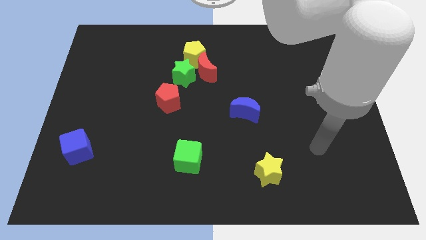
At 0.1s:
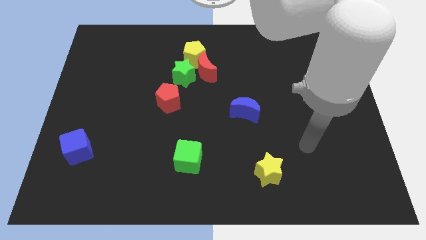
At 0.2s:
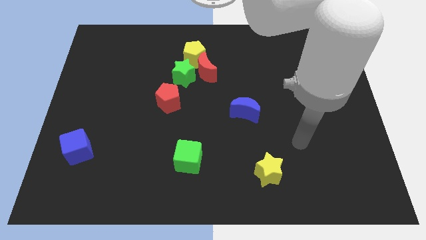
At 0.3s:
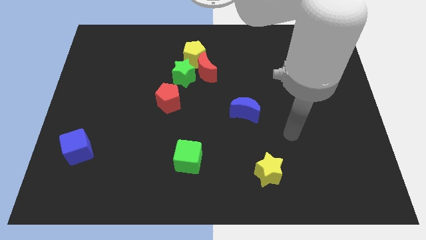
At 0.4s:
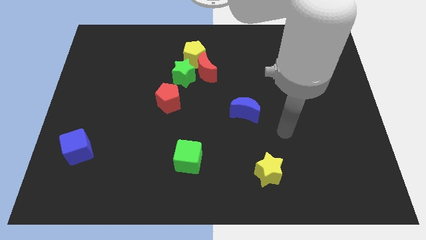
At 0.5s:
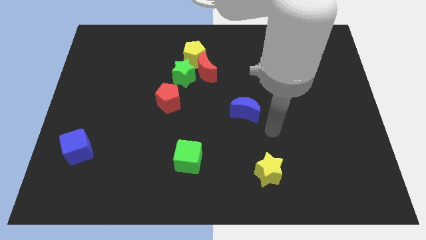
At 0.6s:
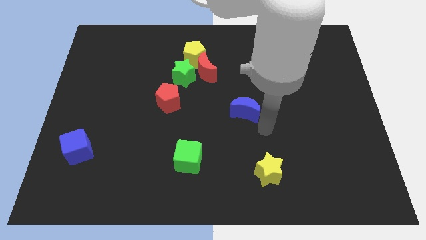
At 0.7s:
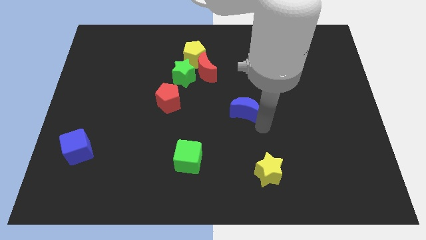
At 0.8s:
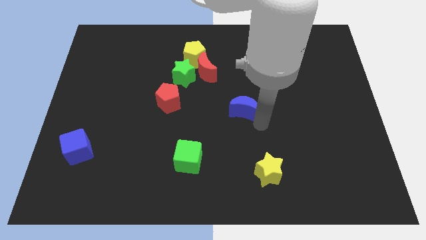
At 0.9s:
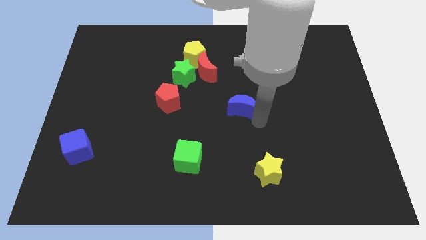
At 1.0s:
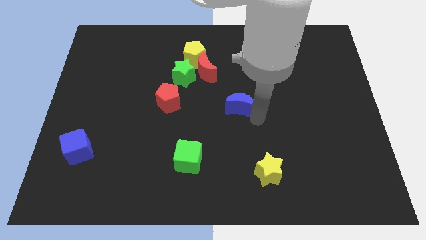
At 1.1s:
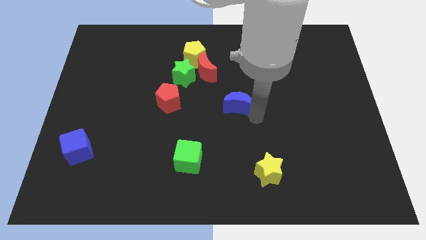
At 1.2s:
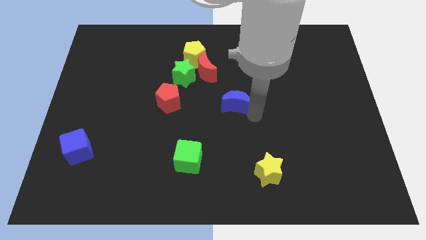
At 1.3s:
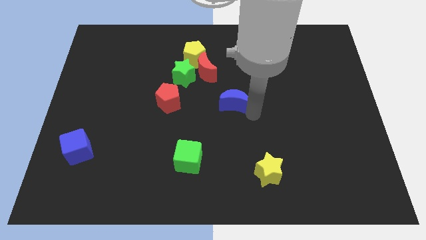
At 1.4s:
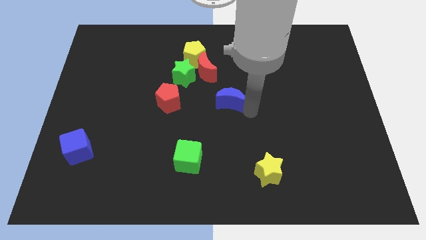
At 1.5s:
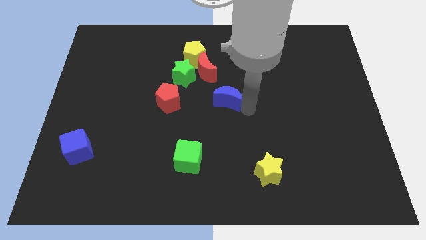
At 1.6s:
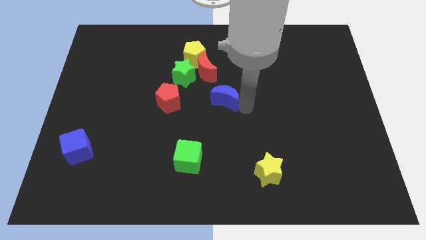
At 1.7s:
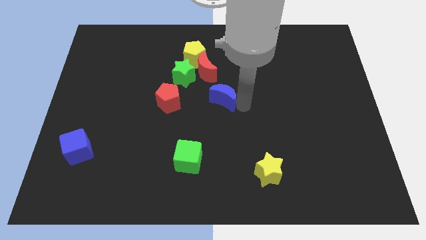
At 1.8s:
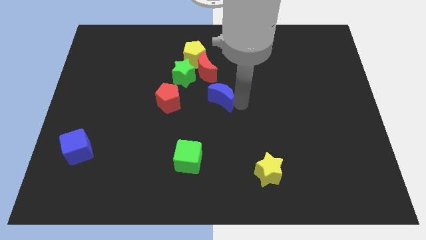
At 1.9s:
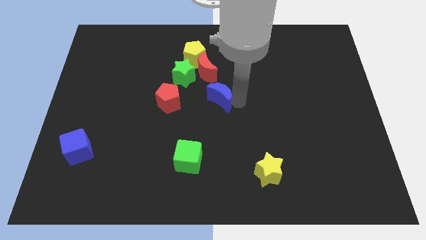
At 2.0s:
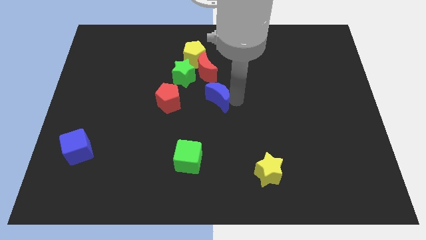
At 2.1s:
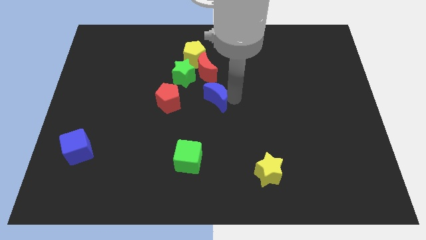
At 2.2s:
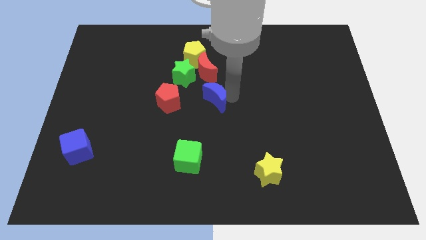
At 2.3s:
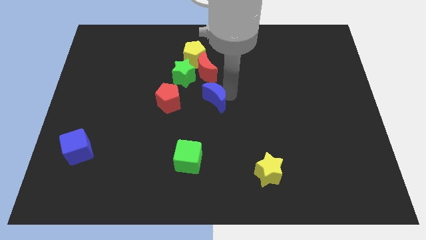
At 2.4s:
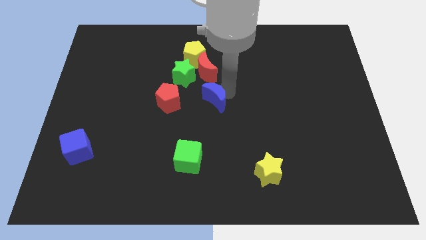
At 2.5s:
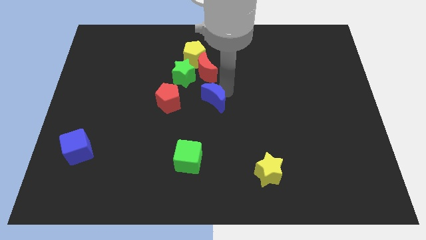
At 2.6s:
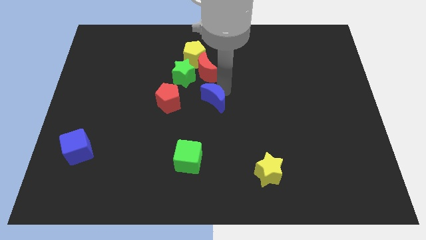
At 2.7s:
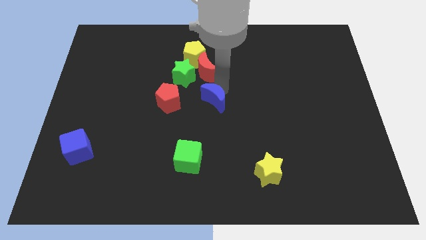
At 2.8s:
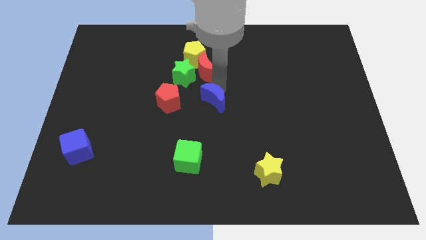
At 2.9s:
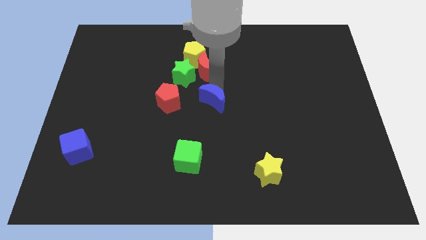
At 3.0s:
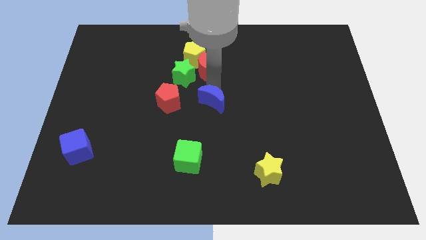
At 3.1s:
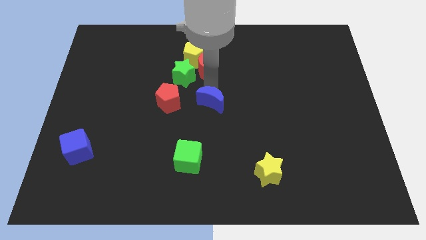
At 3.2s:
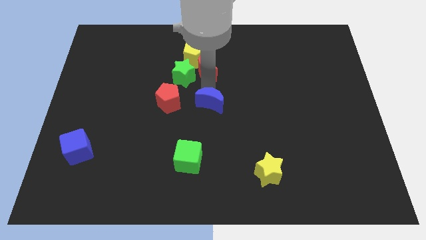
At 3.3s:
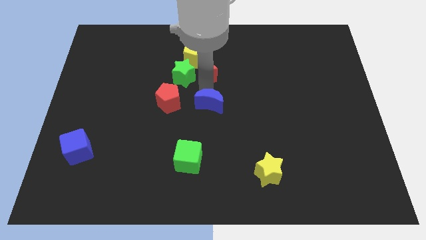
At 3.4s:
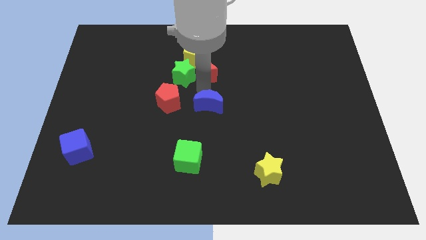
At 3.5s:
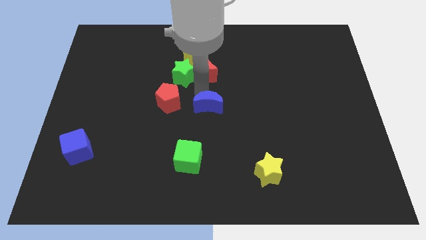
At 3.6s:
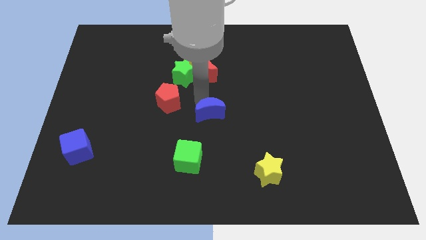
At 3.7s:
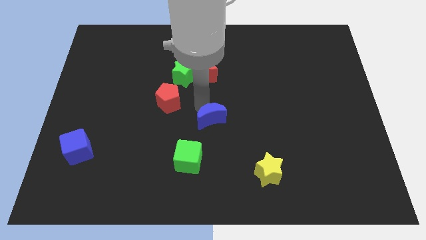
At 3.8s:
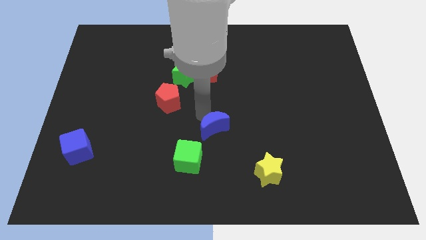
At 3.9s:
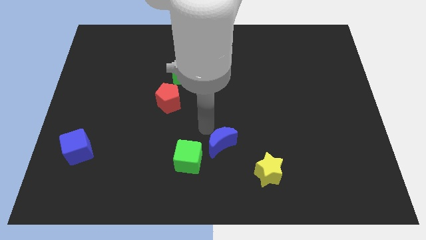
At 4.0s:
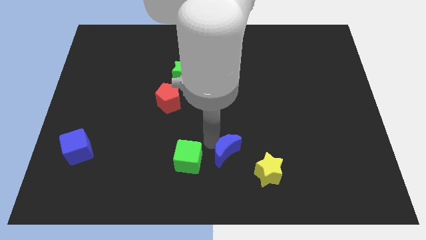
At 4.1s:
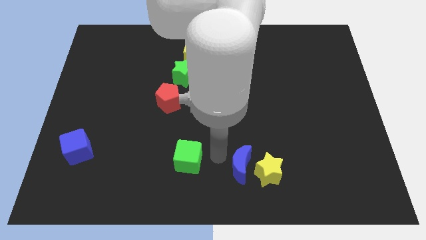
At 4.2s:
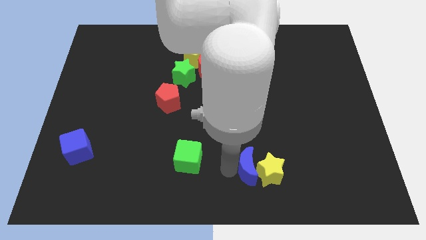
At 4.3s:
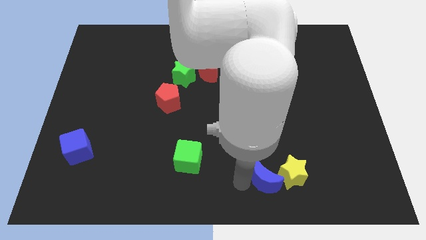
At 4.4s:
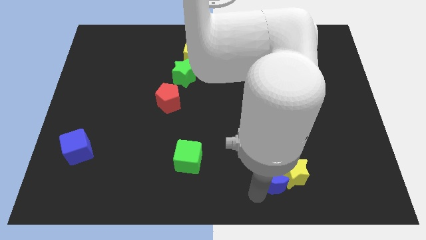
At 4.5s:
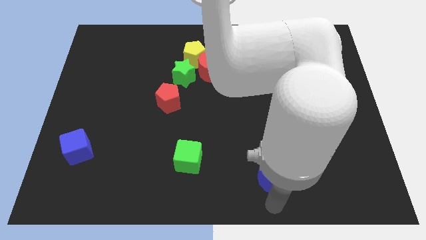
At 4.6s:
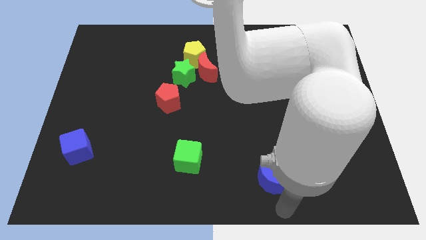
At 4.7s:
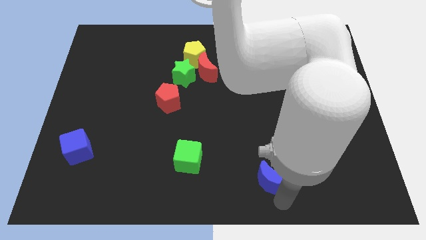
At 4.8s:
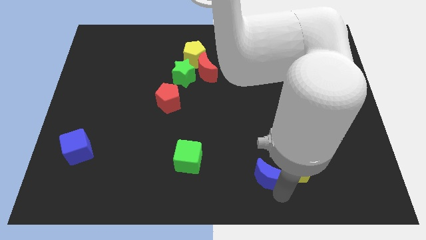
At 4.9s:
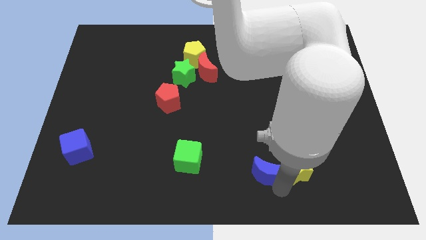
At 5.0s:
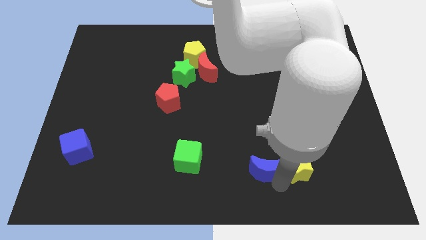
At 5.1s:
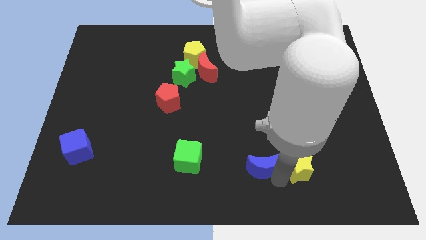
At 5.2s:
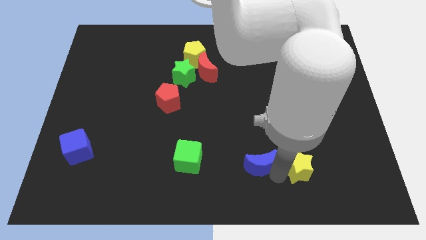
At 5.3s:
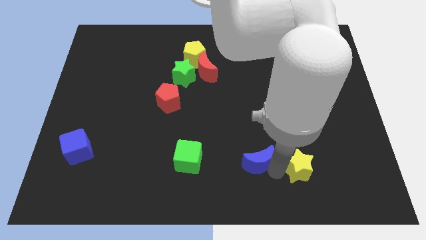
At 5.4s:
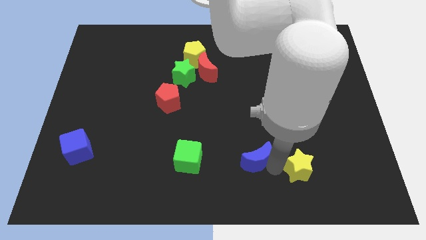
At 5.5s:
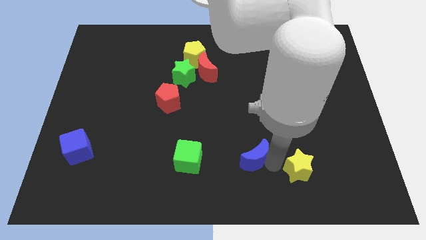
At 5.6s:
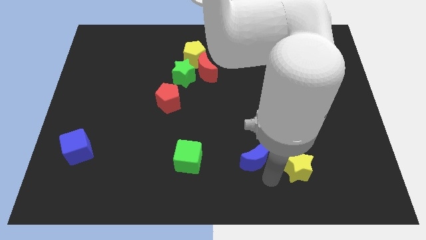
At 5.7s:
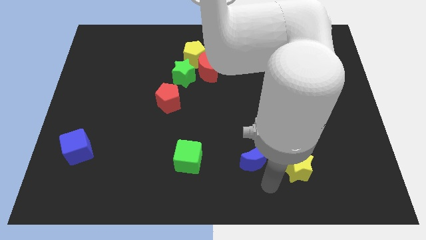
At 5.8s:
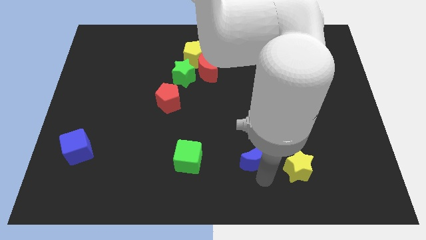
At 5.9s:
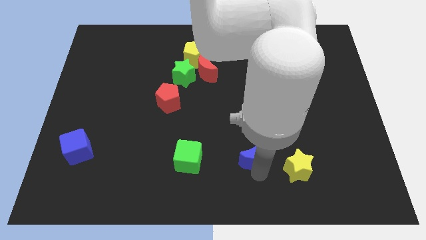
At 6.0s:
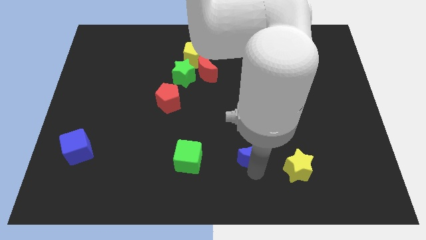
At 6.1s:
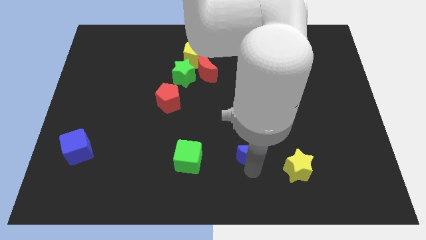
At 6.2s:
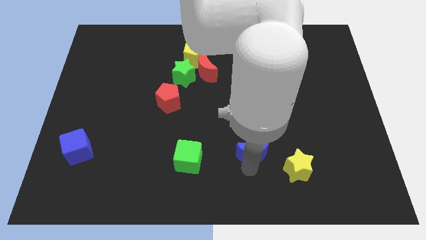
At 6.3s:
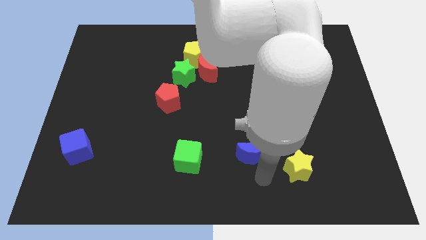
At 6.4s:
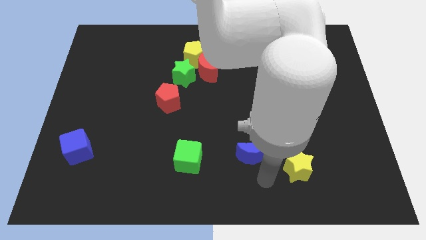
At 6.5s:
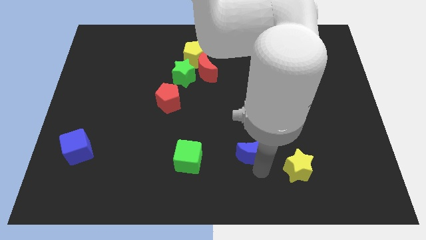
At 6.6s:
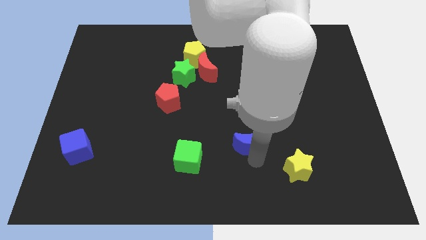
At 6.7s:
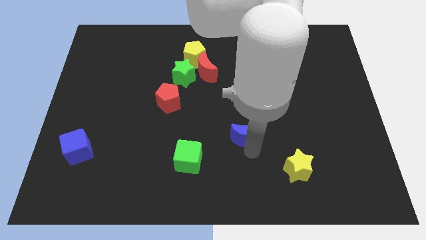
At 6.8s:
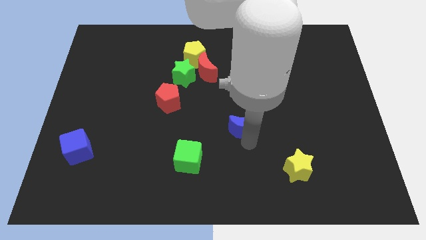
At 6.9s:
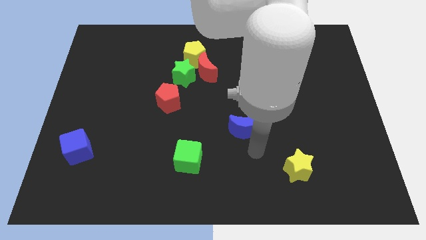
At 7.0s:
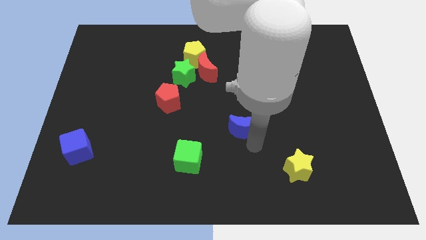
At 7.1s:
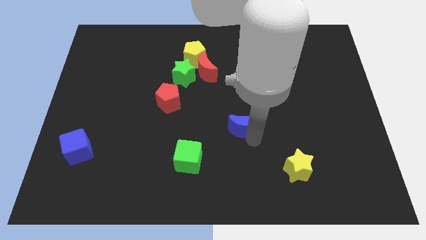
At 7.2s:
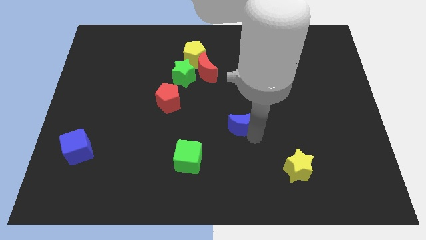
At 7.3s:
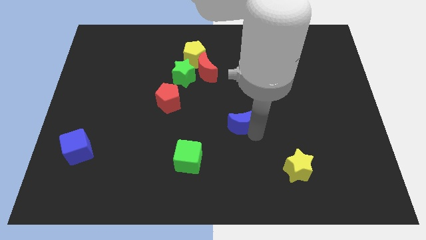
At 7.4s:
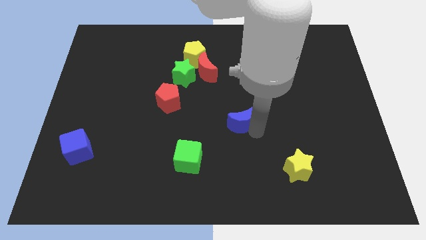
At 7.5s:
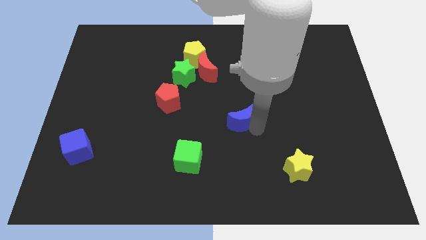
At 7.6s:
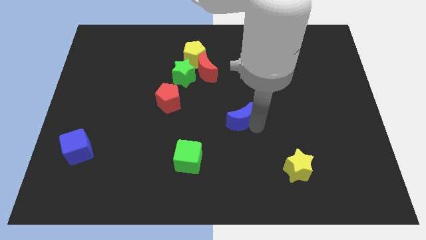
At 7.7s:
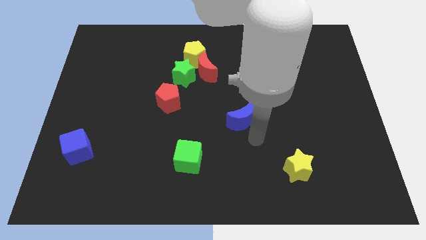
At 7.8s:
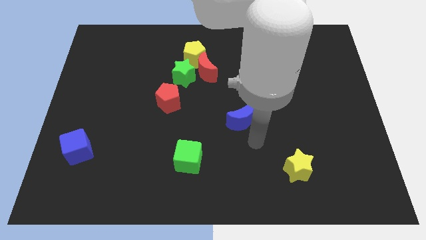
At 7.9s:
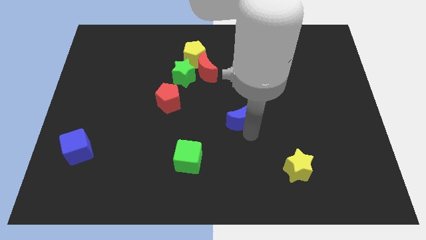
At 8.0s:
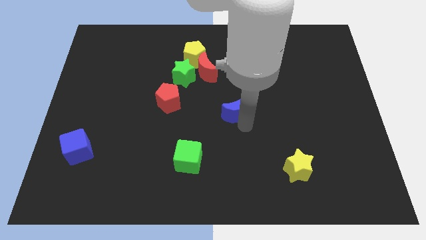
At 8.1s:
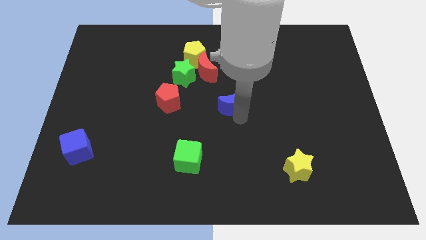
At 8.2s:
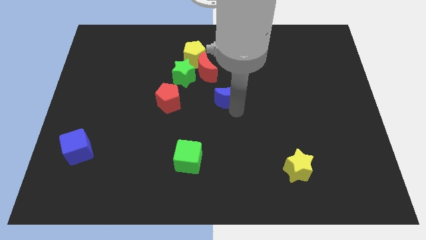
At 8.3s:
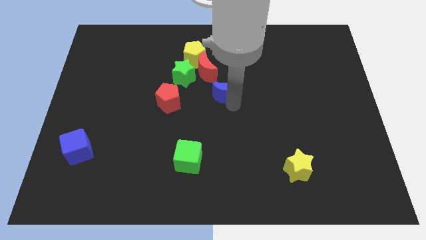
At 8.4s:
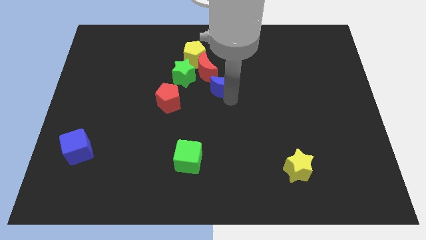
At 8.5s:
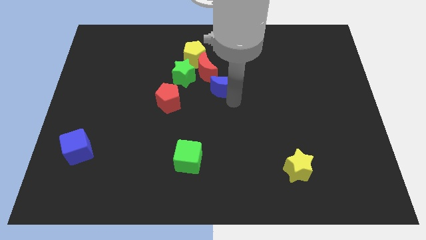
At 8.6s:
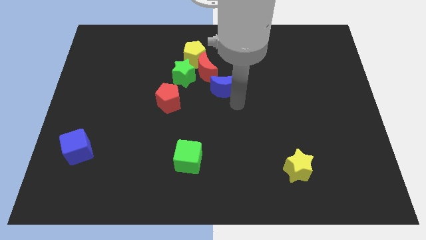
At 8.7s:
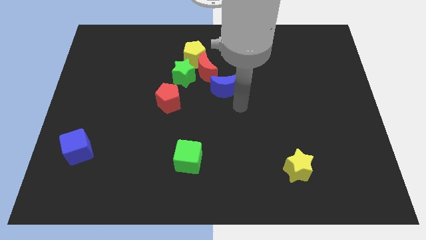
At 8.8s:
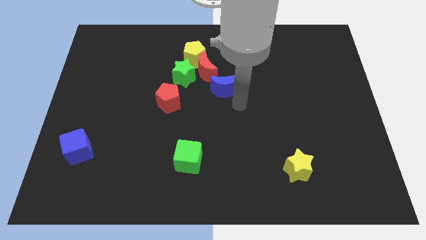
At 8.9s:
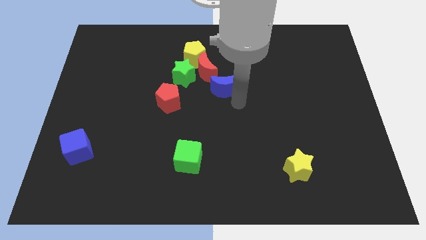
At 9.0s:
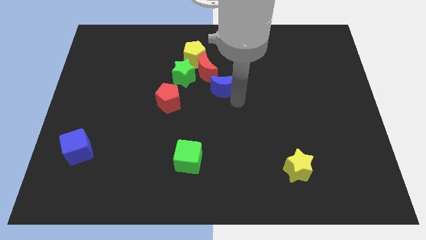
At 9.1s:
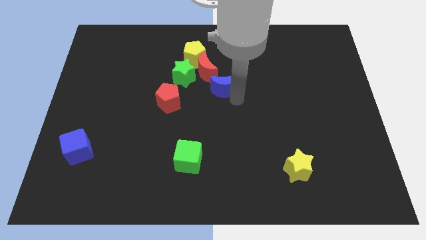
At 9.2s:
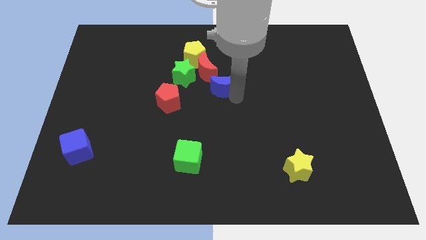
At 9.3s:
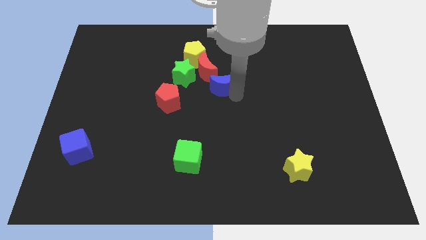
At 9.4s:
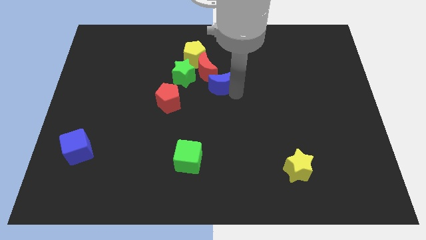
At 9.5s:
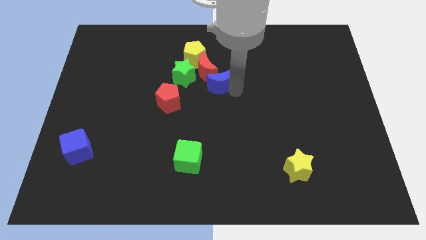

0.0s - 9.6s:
slide the blue moon next to the red moon
